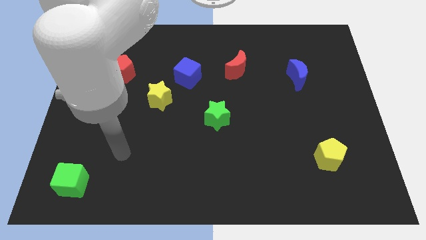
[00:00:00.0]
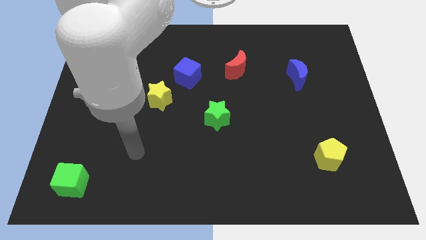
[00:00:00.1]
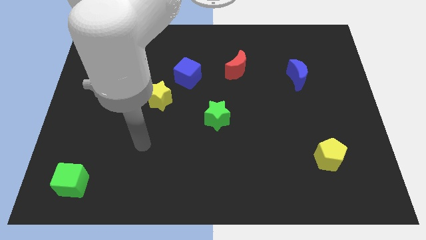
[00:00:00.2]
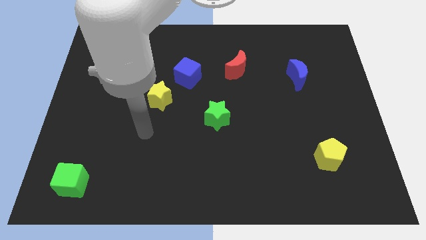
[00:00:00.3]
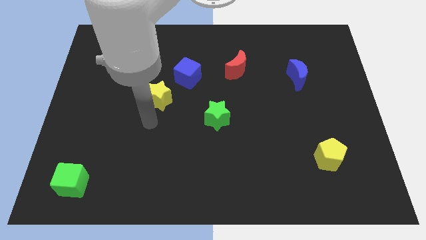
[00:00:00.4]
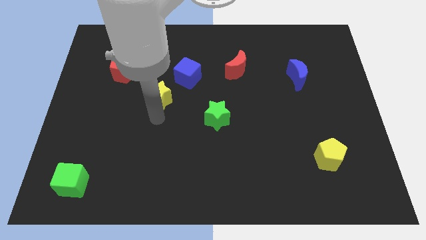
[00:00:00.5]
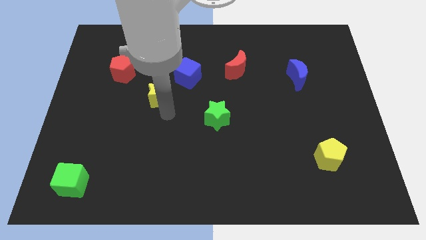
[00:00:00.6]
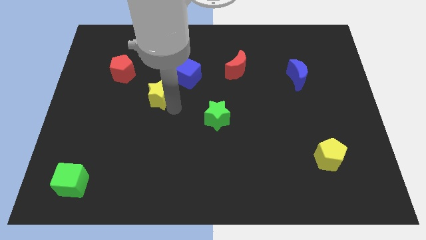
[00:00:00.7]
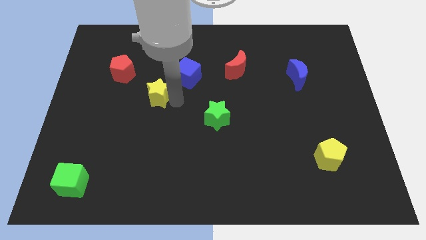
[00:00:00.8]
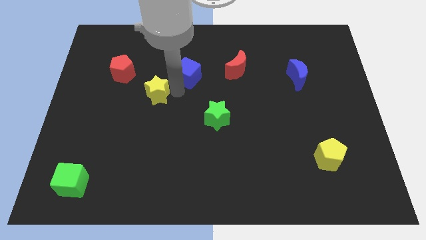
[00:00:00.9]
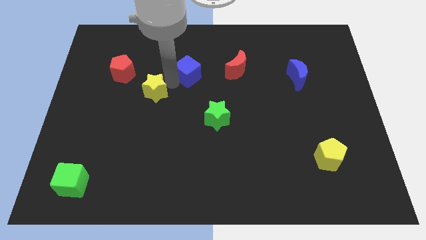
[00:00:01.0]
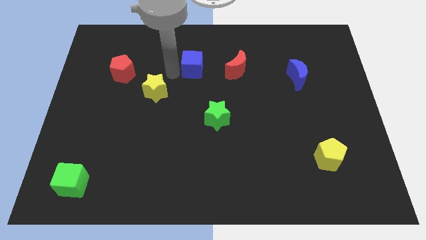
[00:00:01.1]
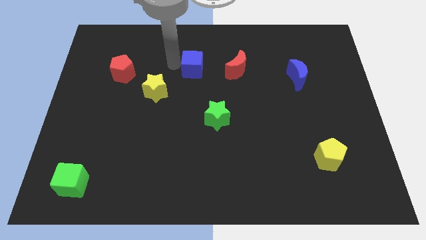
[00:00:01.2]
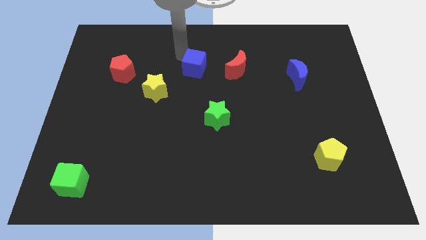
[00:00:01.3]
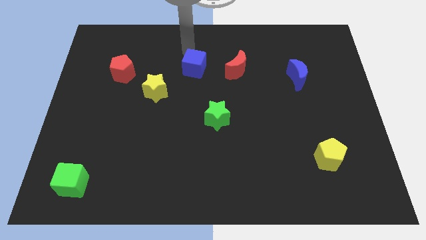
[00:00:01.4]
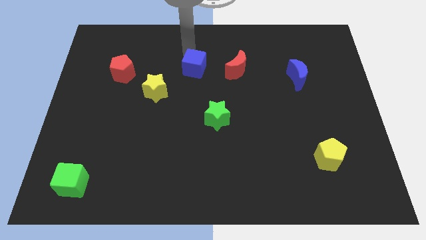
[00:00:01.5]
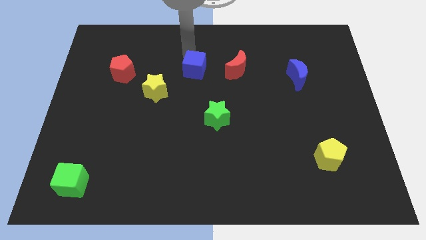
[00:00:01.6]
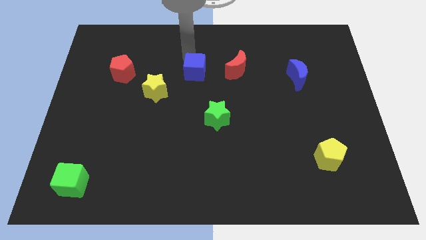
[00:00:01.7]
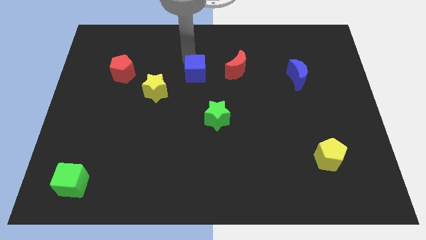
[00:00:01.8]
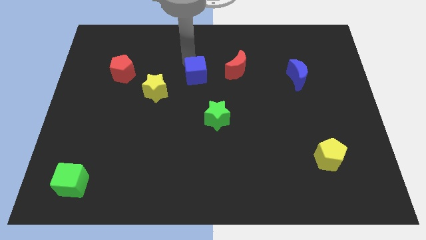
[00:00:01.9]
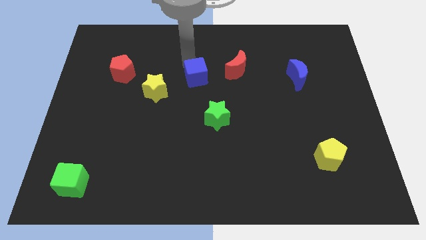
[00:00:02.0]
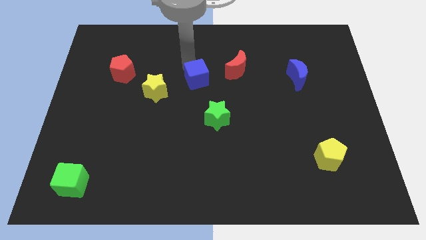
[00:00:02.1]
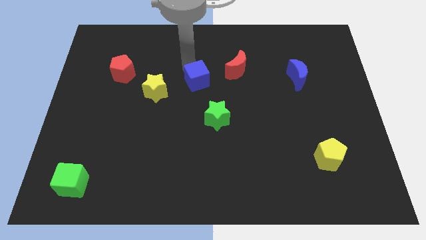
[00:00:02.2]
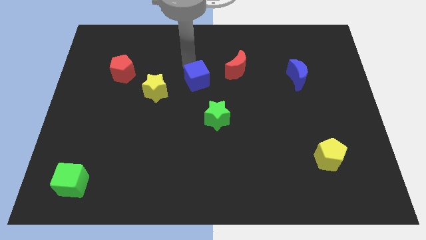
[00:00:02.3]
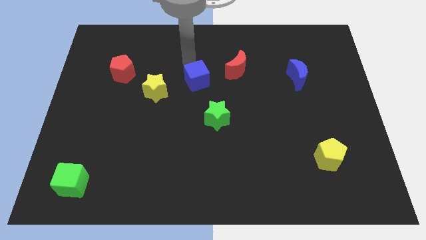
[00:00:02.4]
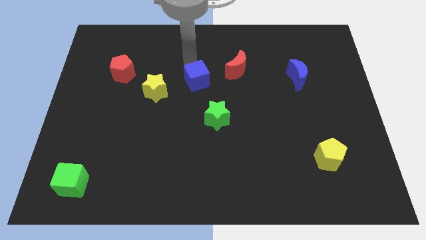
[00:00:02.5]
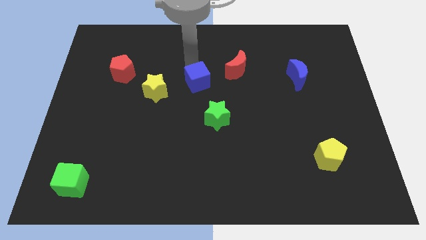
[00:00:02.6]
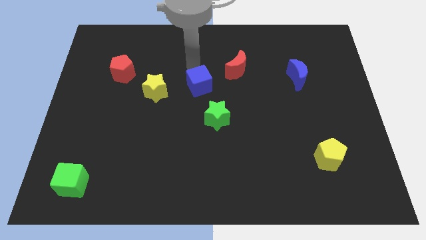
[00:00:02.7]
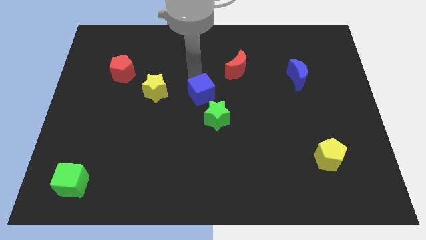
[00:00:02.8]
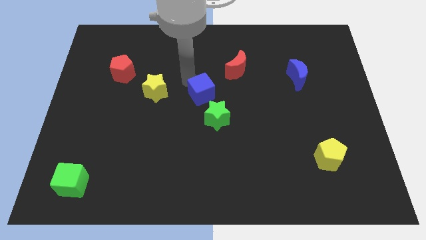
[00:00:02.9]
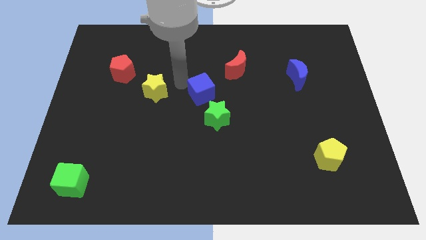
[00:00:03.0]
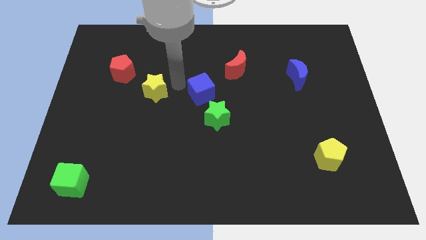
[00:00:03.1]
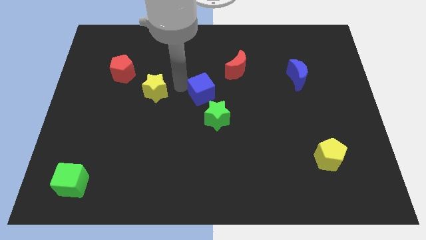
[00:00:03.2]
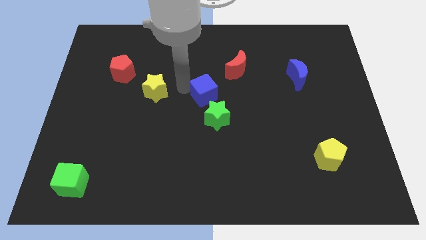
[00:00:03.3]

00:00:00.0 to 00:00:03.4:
slide the blue cube a bit diagonally downwards and right

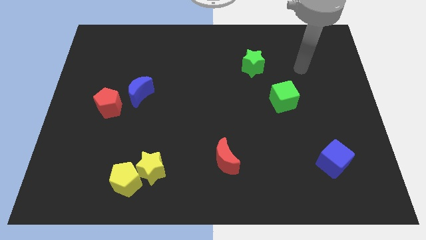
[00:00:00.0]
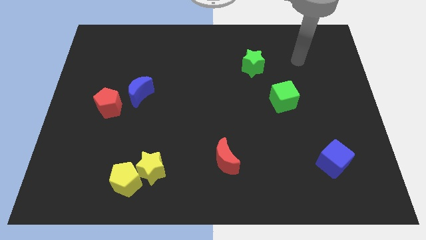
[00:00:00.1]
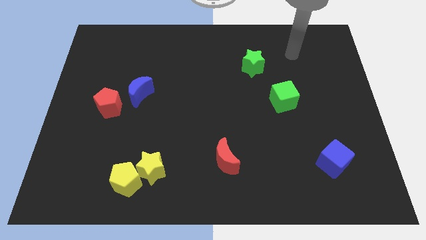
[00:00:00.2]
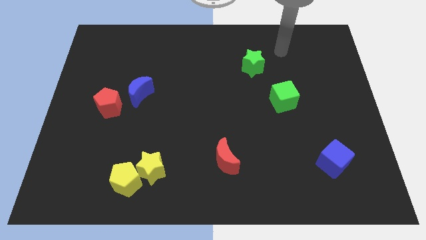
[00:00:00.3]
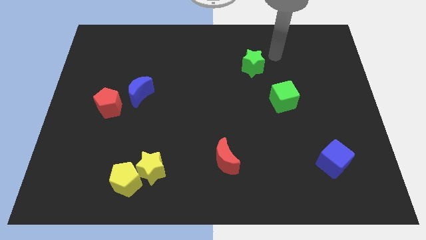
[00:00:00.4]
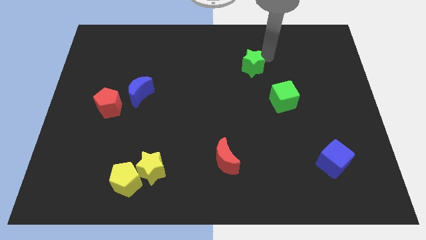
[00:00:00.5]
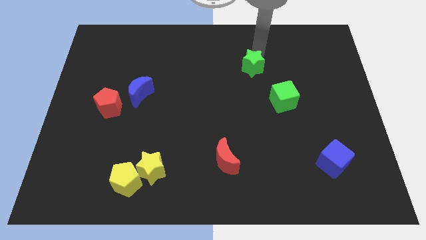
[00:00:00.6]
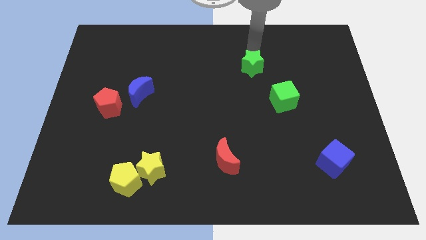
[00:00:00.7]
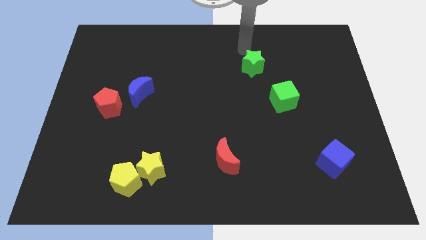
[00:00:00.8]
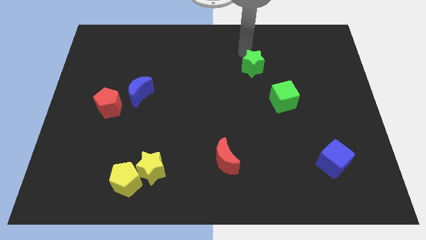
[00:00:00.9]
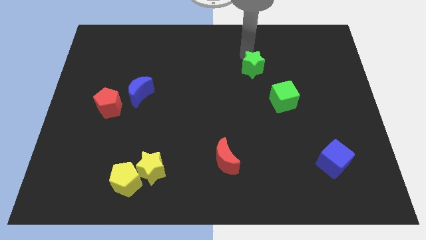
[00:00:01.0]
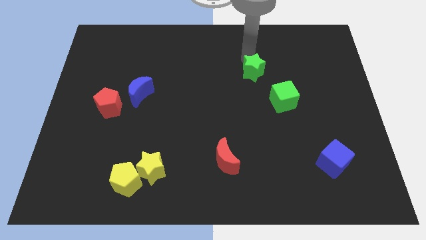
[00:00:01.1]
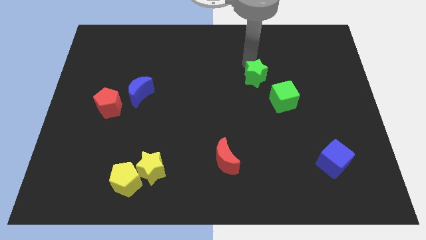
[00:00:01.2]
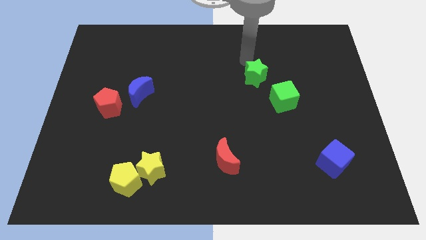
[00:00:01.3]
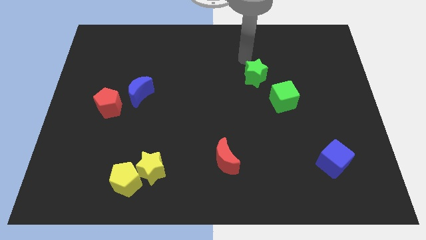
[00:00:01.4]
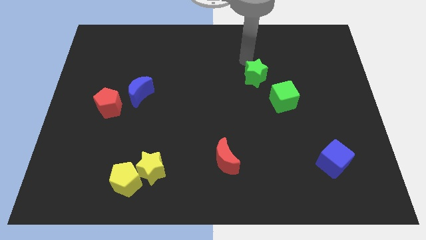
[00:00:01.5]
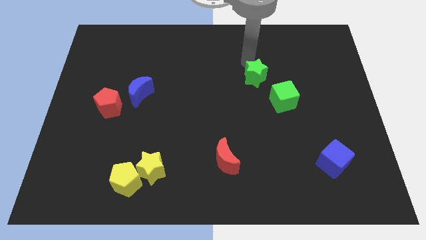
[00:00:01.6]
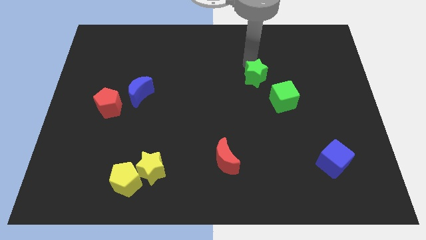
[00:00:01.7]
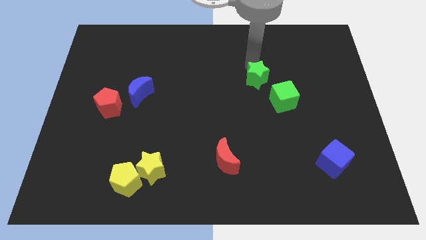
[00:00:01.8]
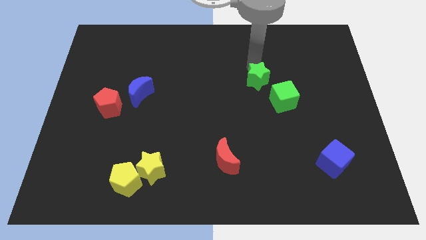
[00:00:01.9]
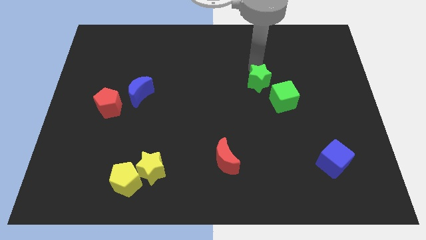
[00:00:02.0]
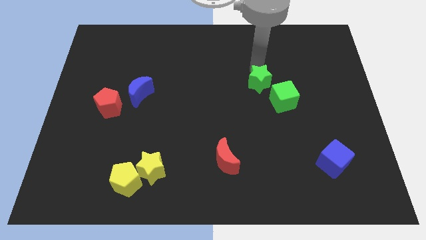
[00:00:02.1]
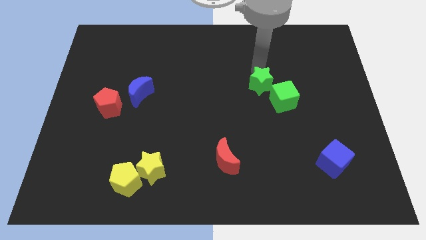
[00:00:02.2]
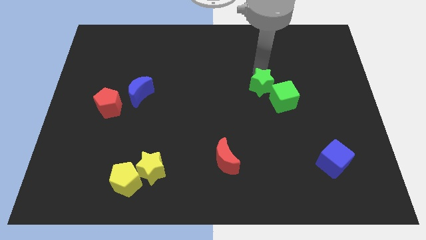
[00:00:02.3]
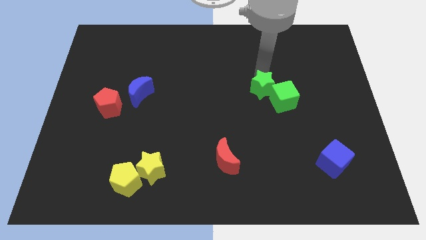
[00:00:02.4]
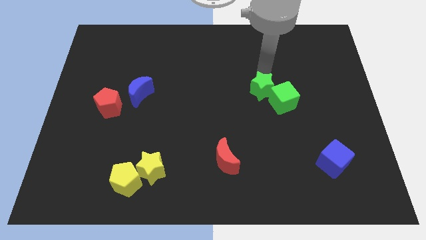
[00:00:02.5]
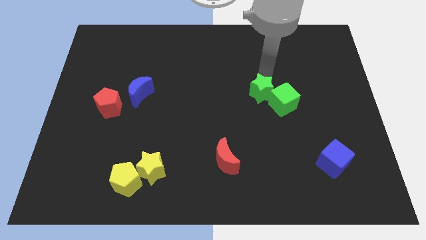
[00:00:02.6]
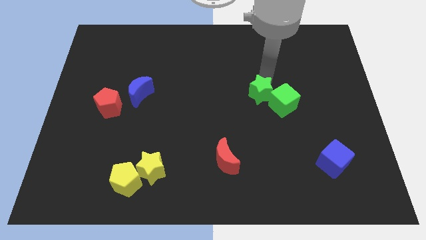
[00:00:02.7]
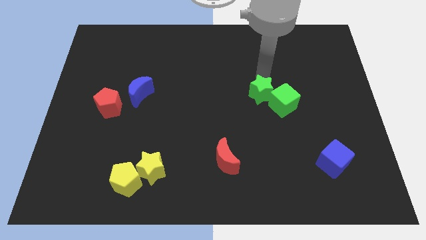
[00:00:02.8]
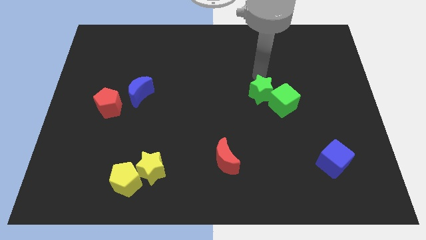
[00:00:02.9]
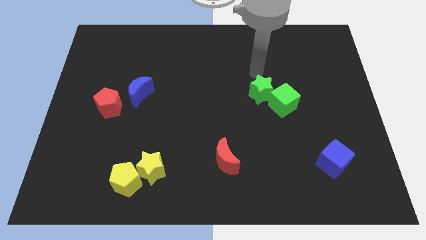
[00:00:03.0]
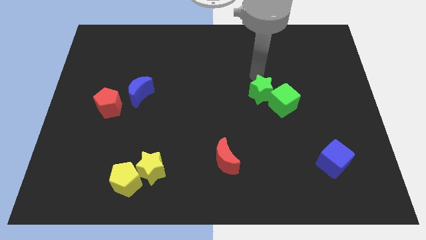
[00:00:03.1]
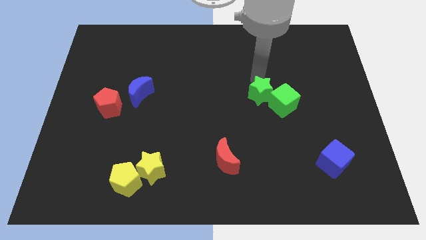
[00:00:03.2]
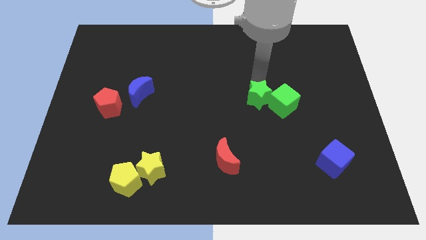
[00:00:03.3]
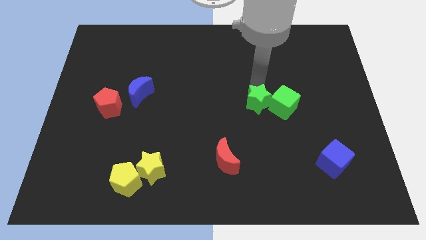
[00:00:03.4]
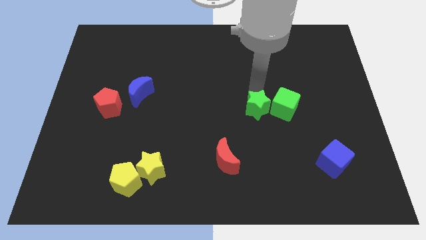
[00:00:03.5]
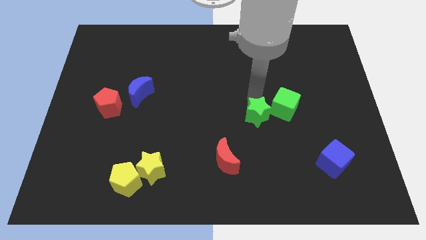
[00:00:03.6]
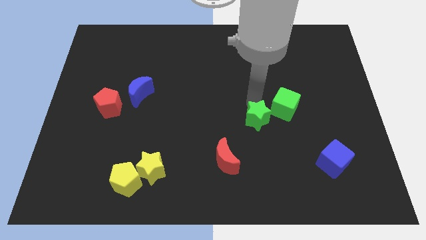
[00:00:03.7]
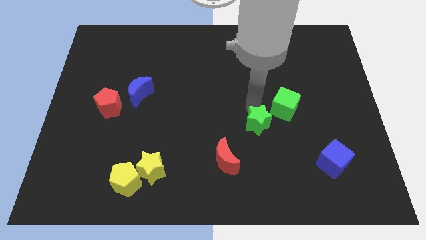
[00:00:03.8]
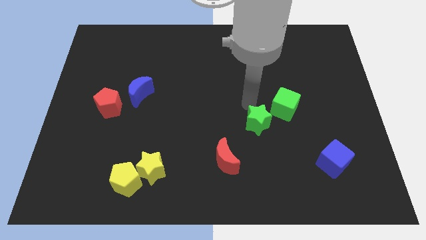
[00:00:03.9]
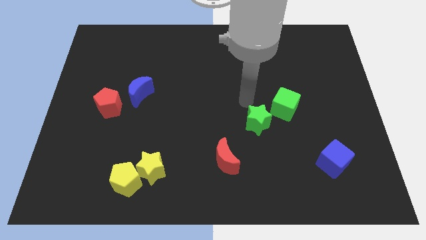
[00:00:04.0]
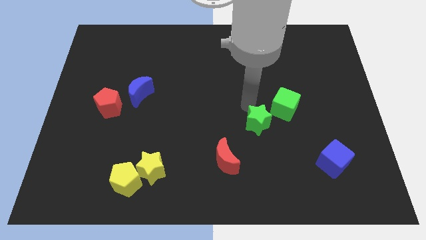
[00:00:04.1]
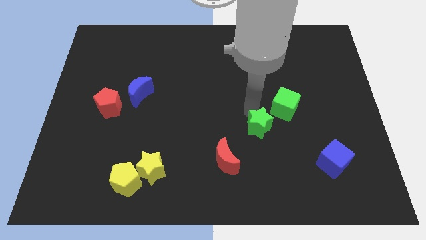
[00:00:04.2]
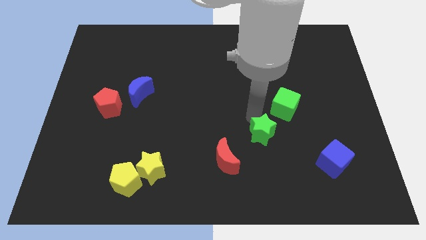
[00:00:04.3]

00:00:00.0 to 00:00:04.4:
move the green star downwards

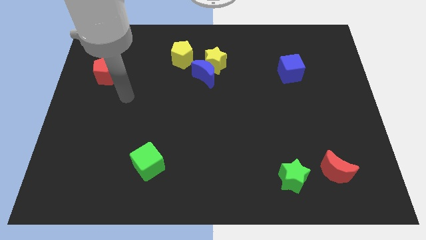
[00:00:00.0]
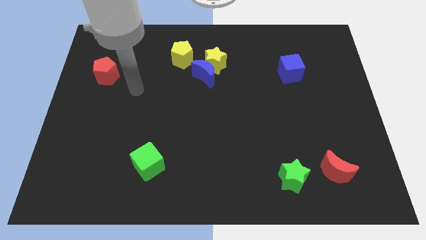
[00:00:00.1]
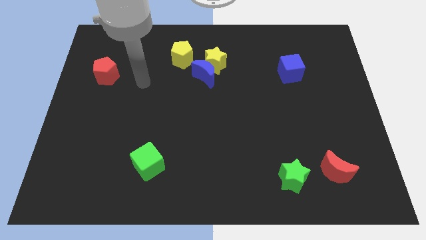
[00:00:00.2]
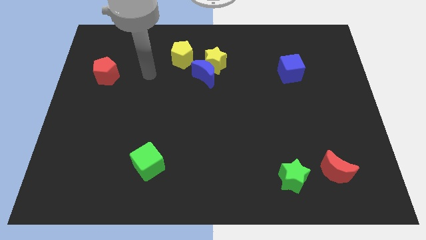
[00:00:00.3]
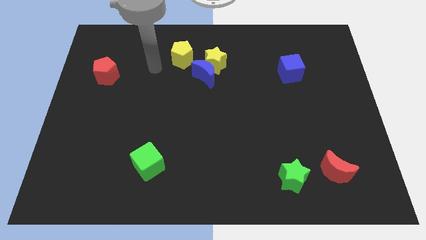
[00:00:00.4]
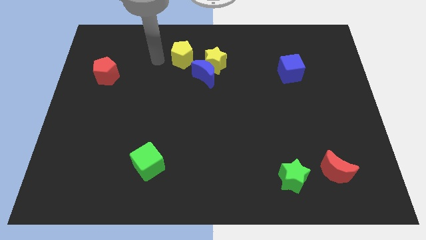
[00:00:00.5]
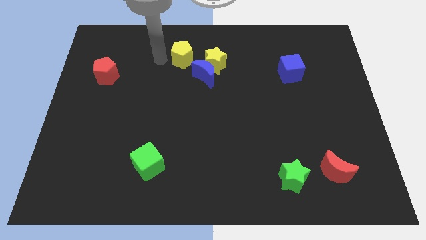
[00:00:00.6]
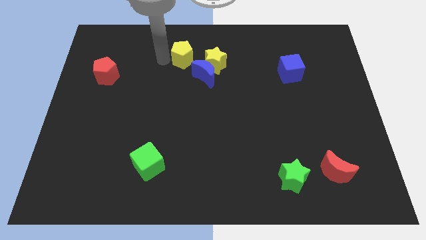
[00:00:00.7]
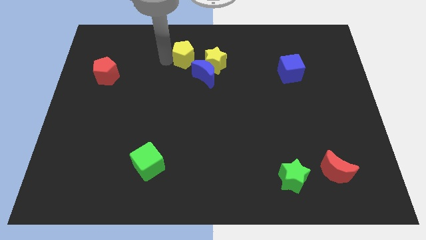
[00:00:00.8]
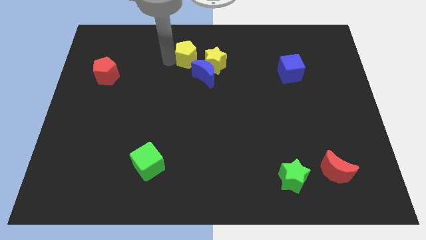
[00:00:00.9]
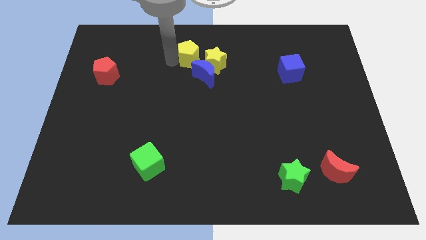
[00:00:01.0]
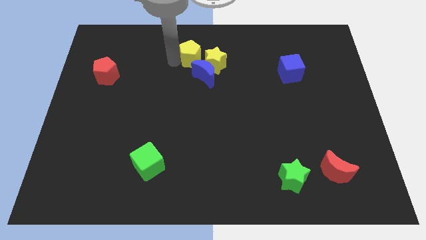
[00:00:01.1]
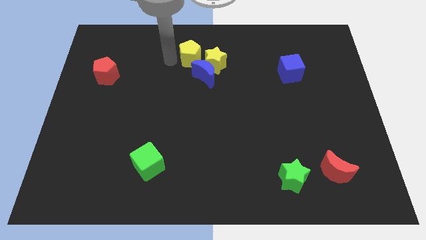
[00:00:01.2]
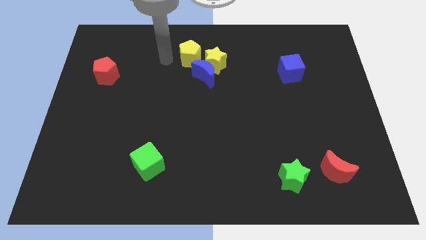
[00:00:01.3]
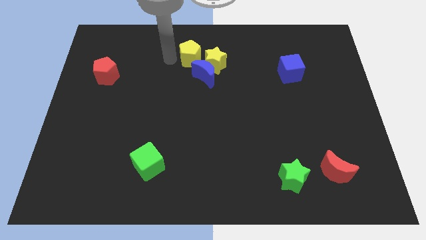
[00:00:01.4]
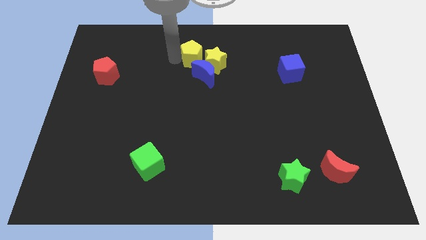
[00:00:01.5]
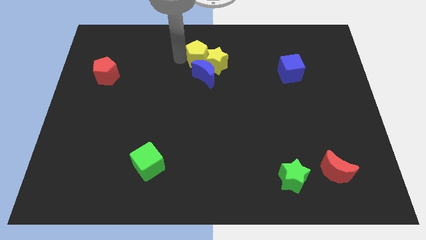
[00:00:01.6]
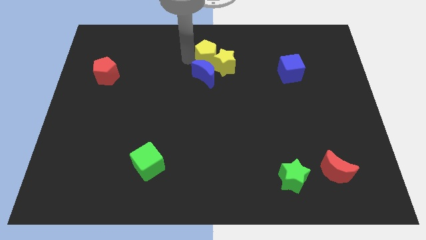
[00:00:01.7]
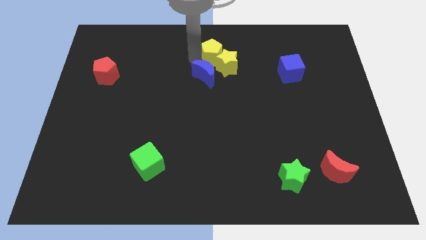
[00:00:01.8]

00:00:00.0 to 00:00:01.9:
slide the yellow pentagon a little right
